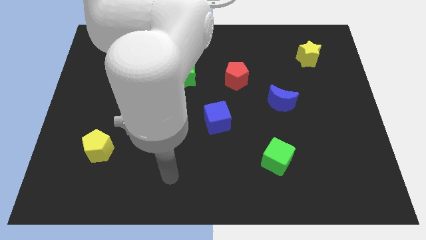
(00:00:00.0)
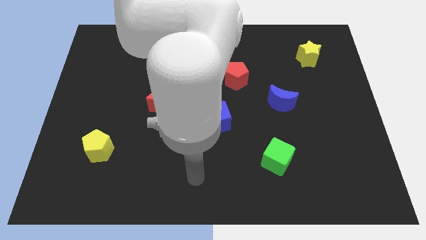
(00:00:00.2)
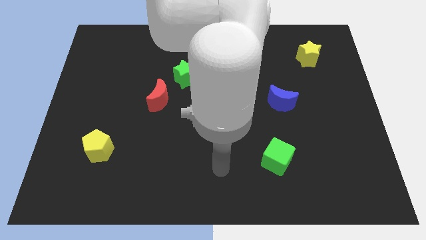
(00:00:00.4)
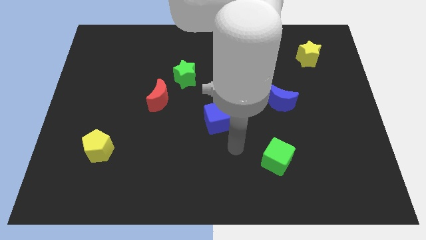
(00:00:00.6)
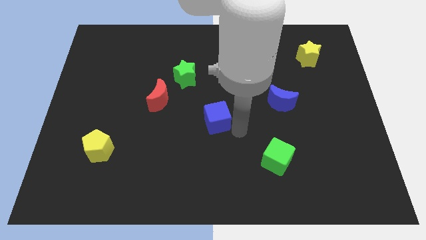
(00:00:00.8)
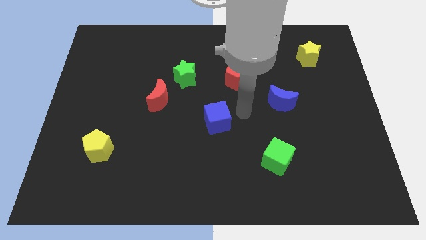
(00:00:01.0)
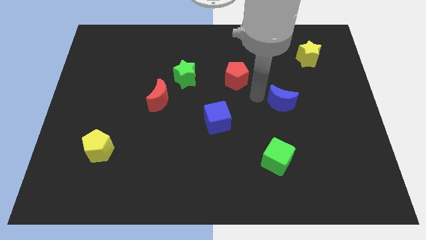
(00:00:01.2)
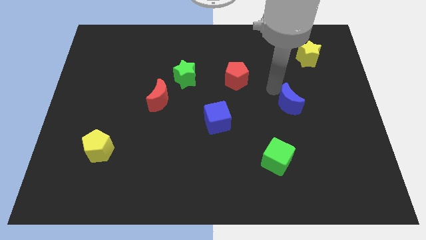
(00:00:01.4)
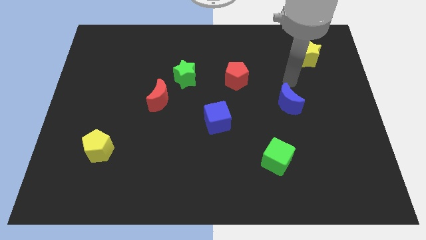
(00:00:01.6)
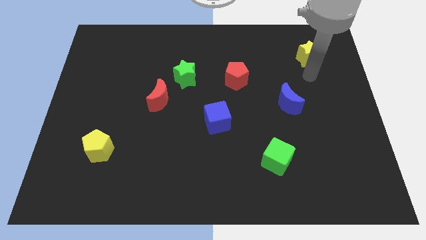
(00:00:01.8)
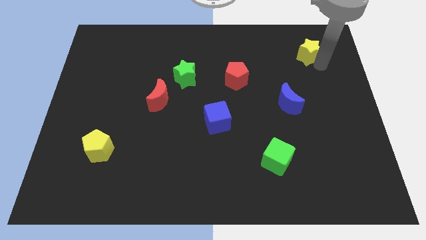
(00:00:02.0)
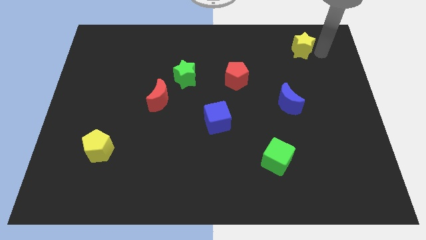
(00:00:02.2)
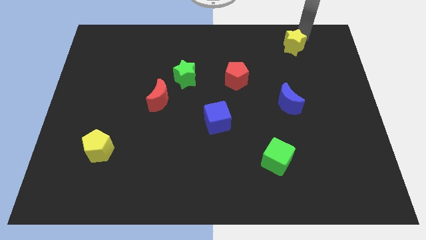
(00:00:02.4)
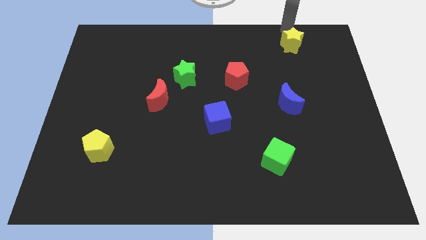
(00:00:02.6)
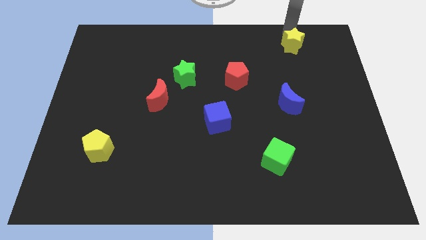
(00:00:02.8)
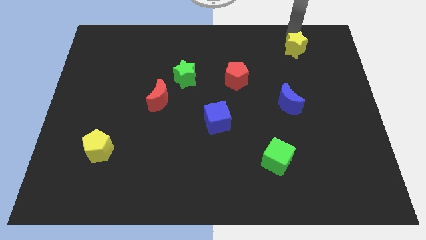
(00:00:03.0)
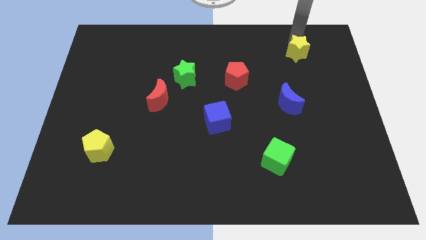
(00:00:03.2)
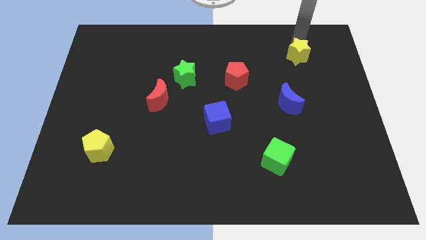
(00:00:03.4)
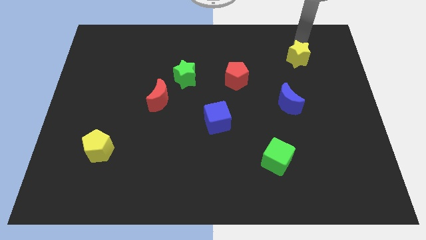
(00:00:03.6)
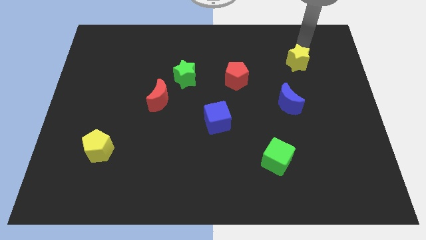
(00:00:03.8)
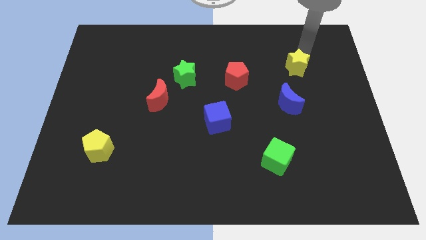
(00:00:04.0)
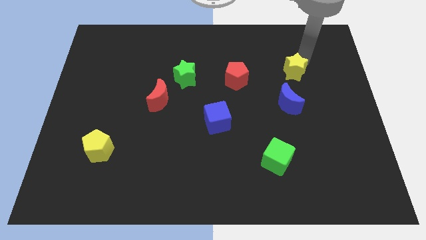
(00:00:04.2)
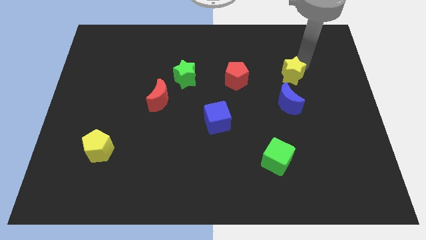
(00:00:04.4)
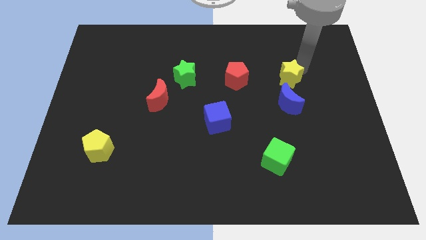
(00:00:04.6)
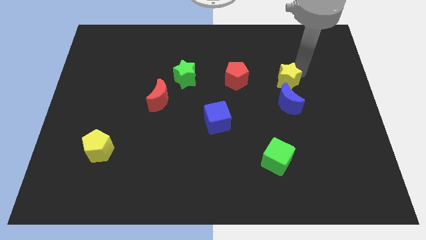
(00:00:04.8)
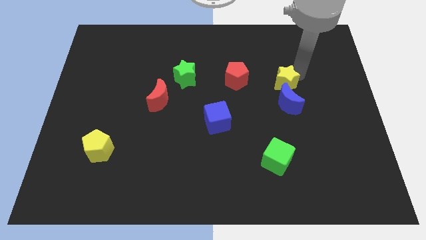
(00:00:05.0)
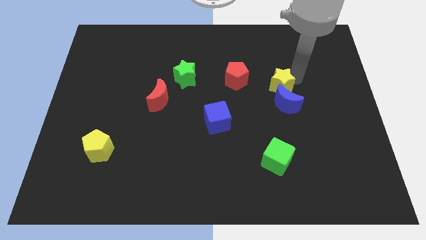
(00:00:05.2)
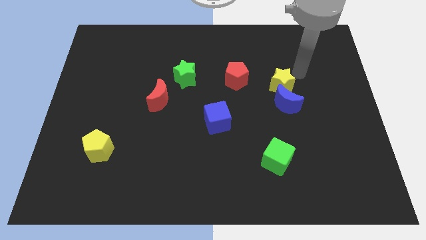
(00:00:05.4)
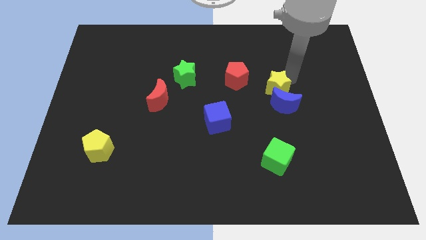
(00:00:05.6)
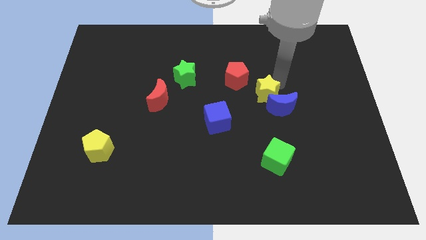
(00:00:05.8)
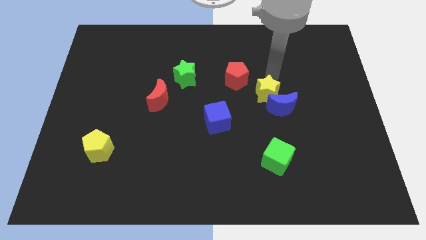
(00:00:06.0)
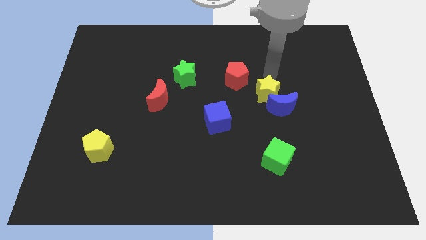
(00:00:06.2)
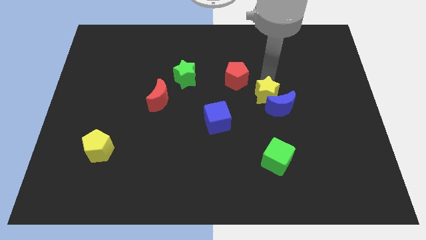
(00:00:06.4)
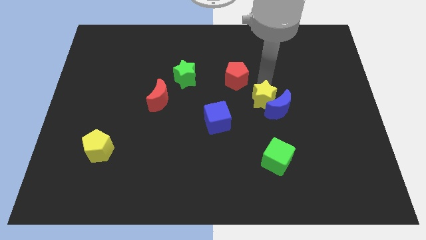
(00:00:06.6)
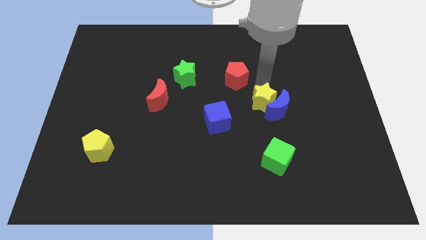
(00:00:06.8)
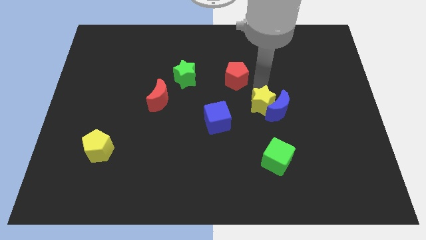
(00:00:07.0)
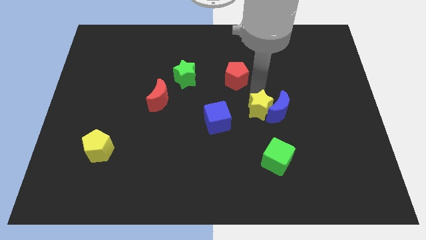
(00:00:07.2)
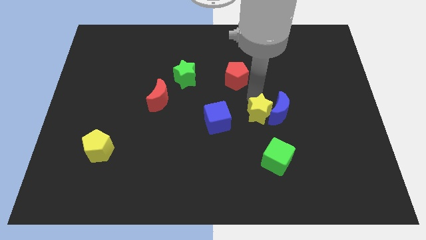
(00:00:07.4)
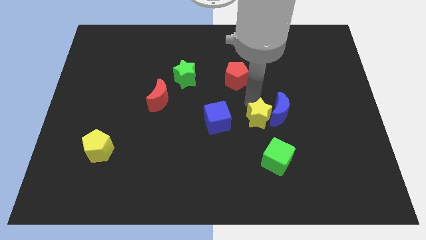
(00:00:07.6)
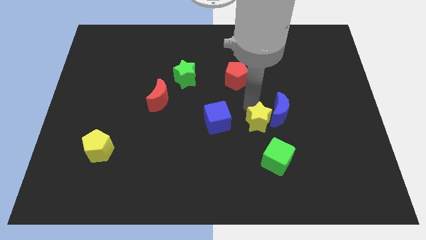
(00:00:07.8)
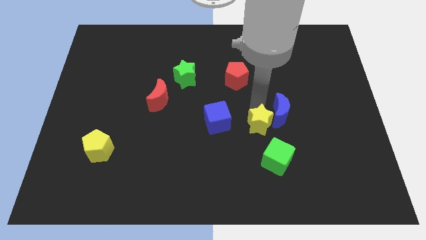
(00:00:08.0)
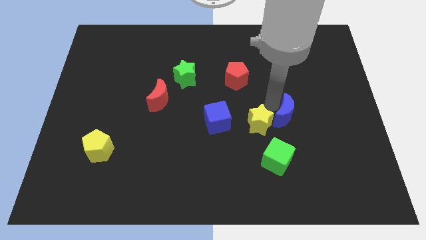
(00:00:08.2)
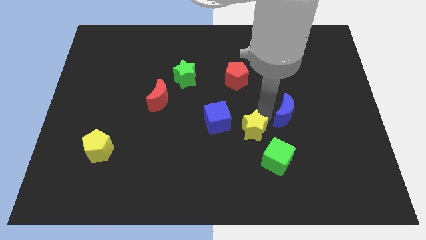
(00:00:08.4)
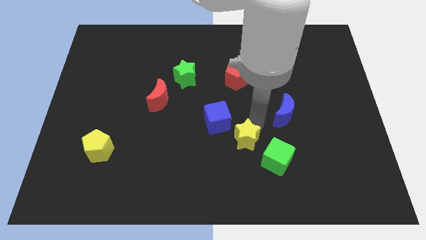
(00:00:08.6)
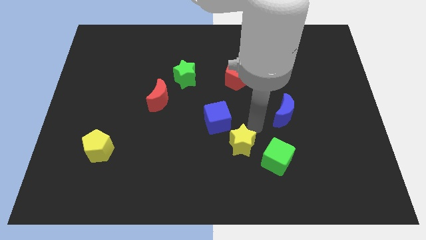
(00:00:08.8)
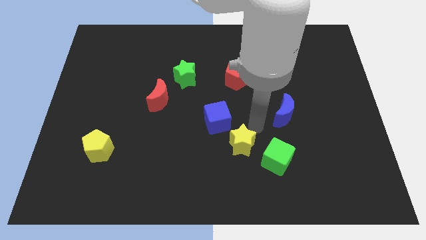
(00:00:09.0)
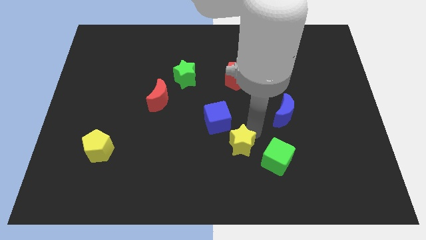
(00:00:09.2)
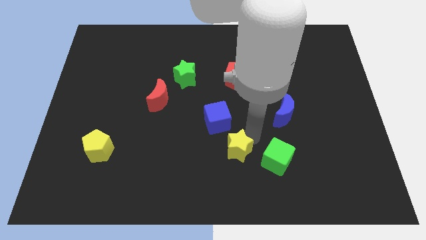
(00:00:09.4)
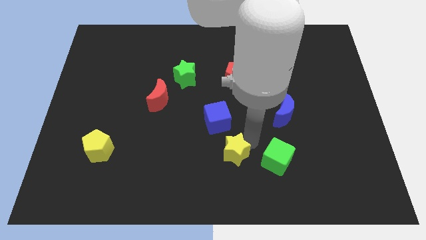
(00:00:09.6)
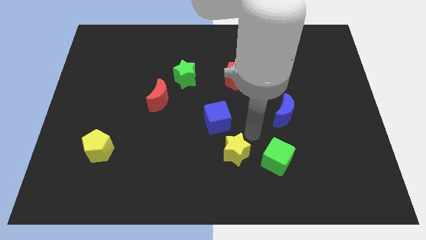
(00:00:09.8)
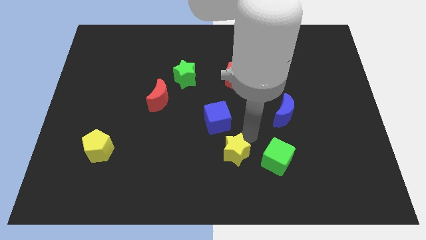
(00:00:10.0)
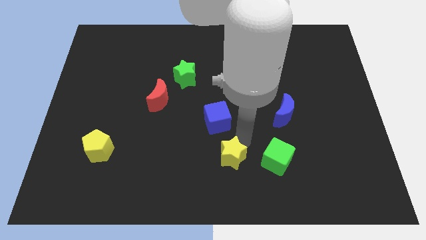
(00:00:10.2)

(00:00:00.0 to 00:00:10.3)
move the yellow star to the bottom

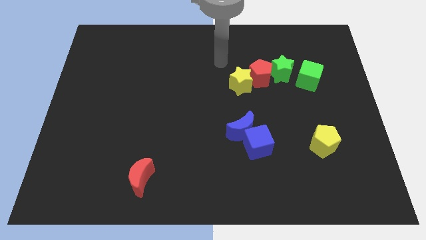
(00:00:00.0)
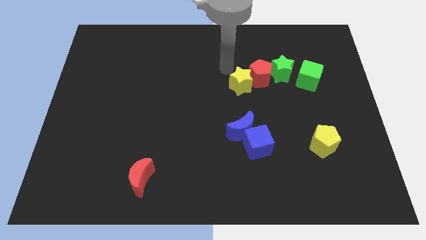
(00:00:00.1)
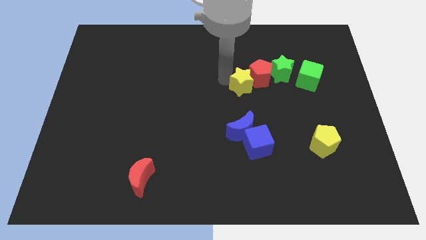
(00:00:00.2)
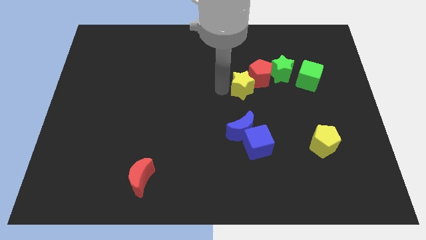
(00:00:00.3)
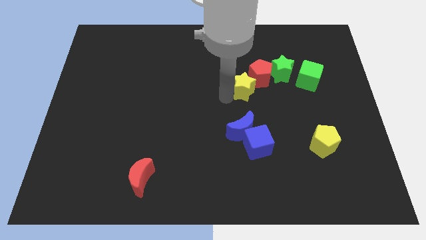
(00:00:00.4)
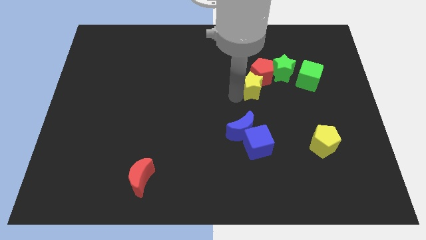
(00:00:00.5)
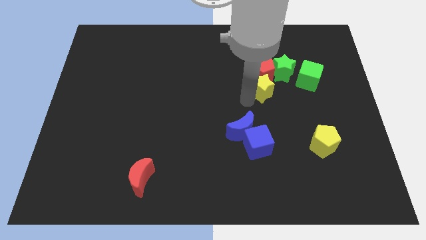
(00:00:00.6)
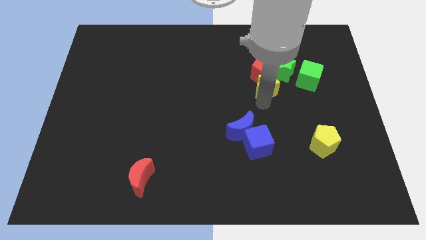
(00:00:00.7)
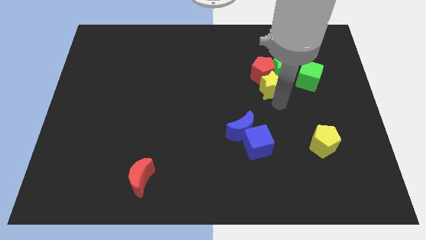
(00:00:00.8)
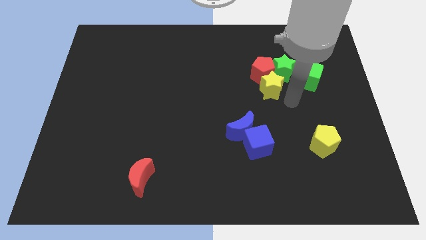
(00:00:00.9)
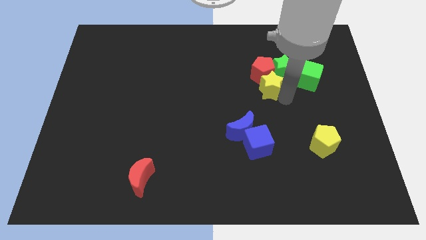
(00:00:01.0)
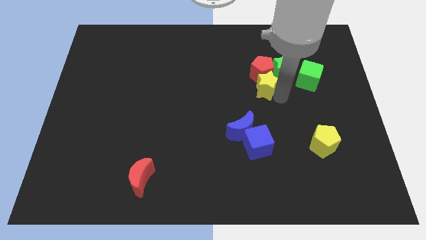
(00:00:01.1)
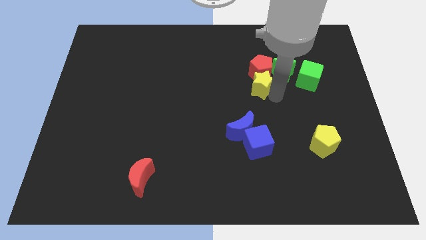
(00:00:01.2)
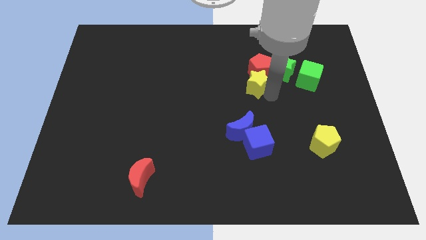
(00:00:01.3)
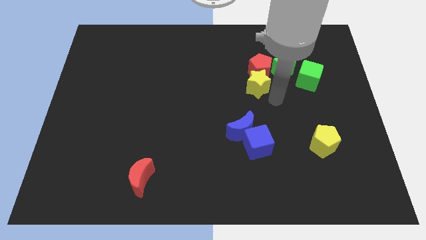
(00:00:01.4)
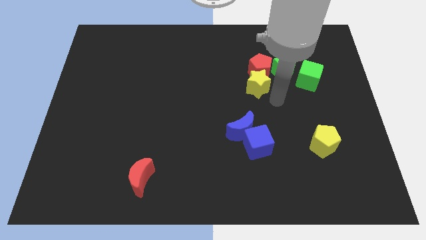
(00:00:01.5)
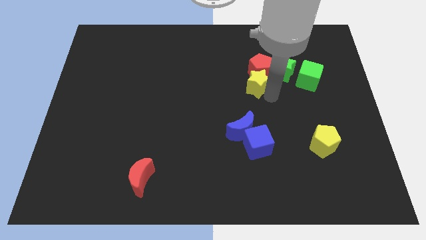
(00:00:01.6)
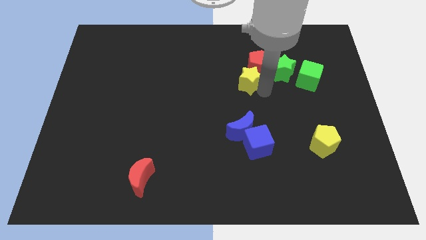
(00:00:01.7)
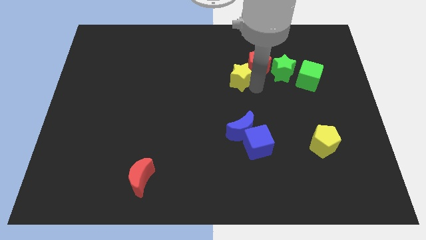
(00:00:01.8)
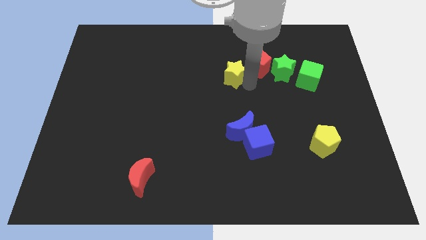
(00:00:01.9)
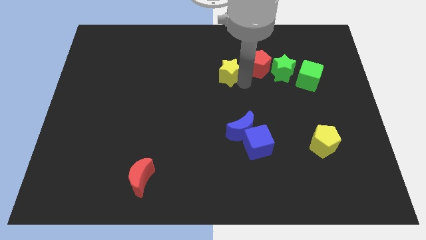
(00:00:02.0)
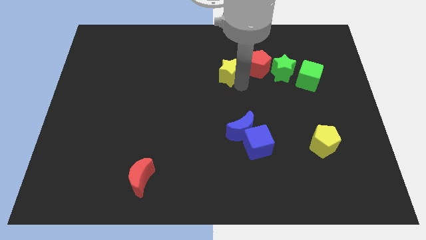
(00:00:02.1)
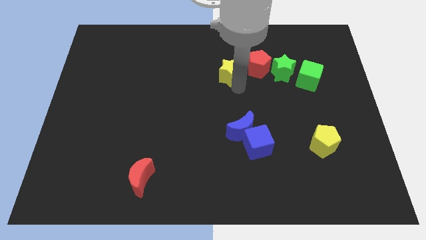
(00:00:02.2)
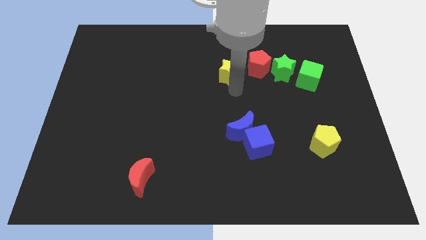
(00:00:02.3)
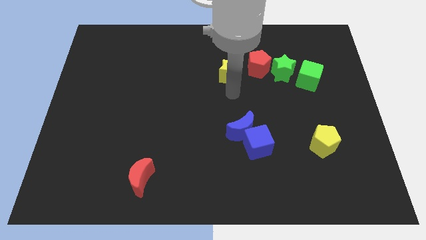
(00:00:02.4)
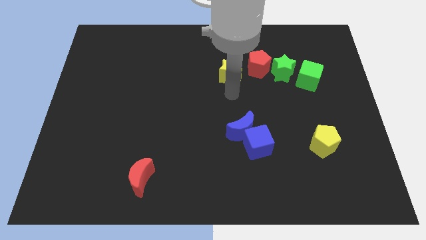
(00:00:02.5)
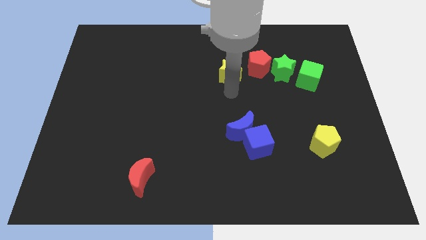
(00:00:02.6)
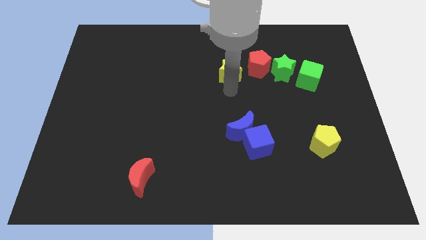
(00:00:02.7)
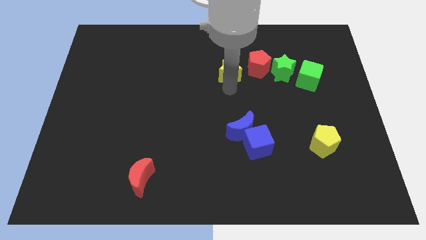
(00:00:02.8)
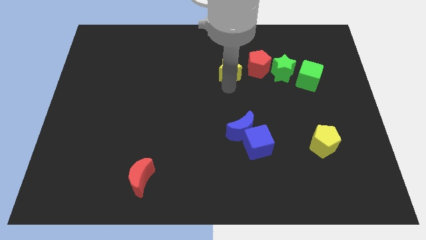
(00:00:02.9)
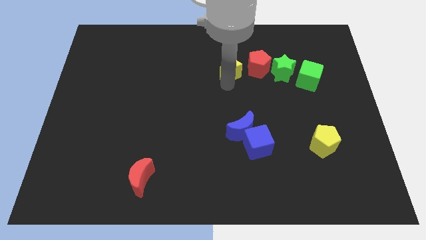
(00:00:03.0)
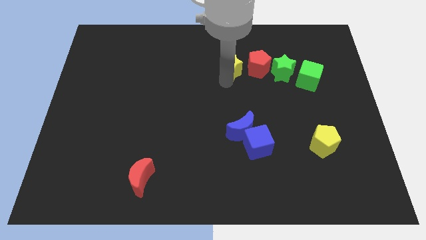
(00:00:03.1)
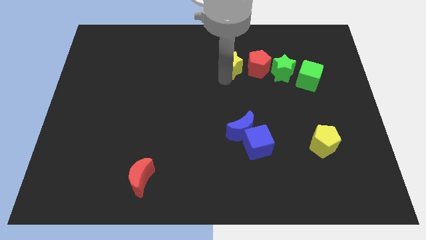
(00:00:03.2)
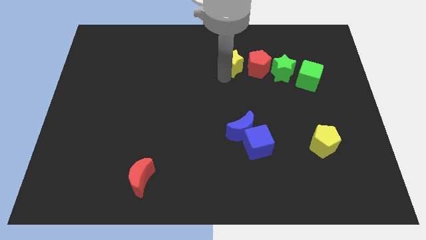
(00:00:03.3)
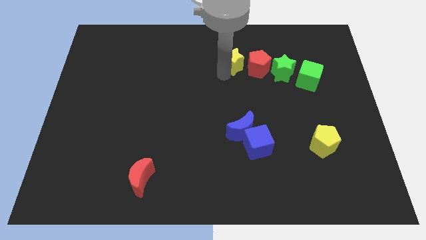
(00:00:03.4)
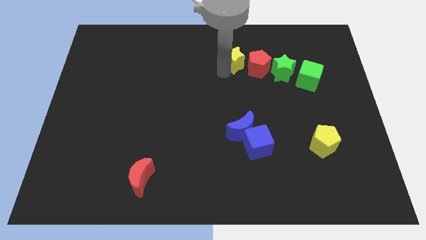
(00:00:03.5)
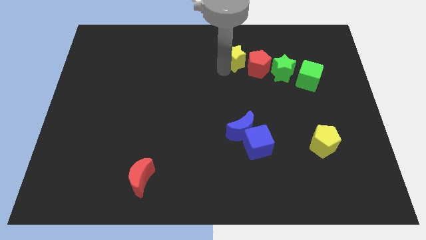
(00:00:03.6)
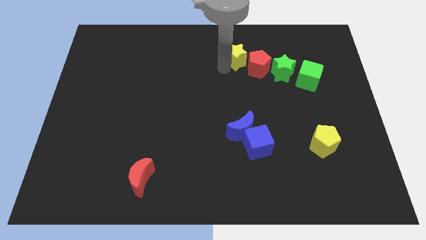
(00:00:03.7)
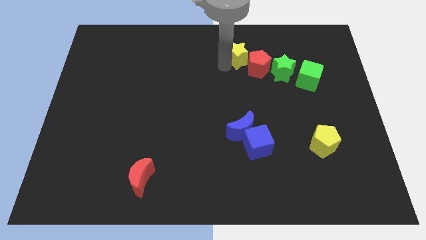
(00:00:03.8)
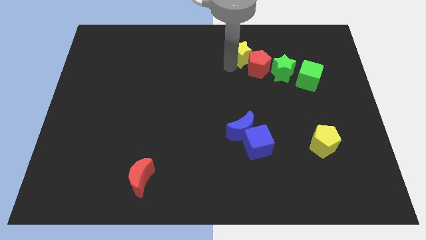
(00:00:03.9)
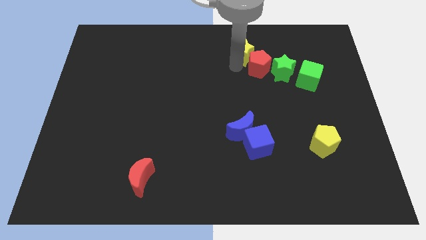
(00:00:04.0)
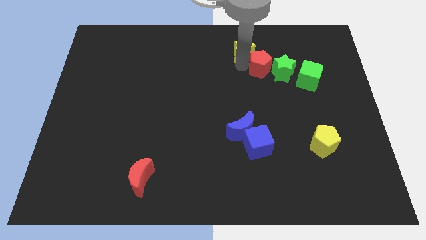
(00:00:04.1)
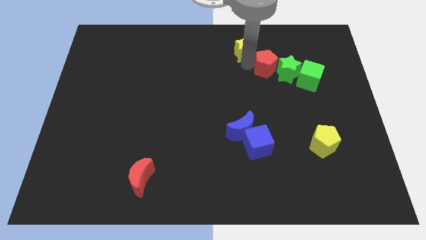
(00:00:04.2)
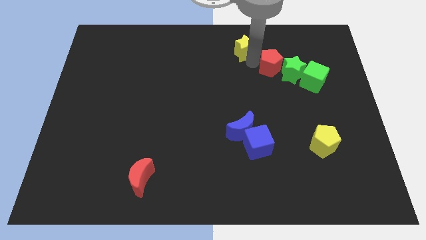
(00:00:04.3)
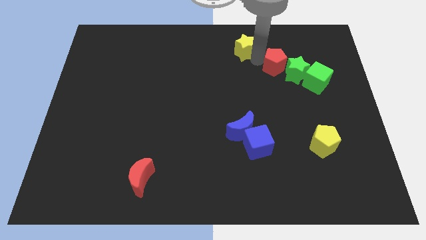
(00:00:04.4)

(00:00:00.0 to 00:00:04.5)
push the yellow star to the towards your base
